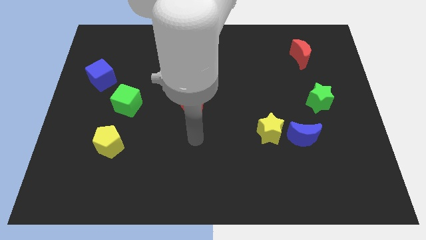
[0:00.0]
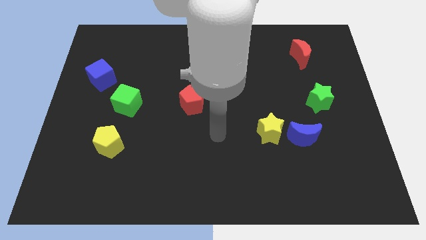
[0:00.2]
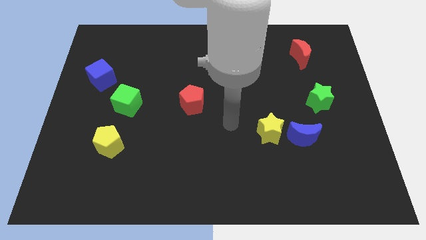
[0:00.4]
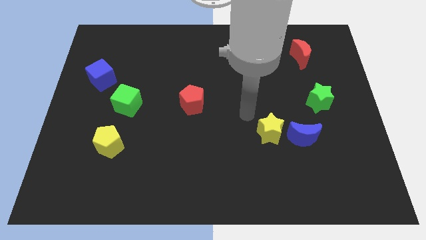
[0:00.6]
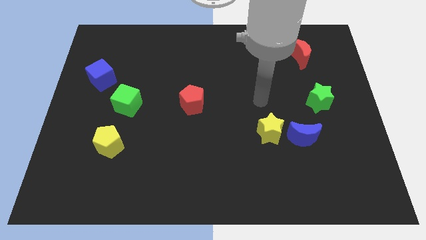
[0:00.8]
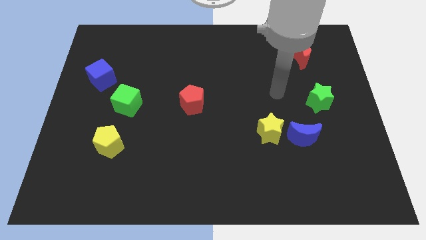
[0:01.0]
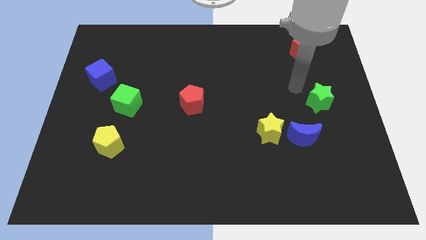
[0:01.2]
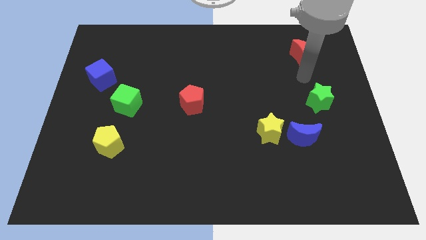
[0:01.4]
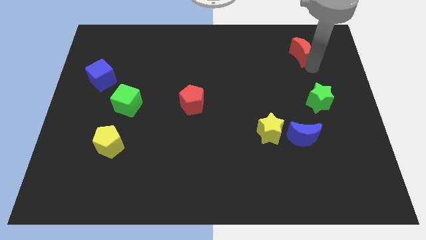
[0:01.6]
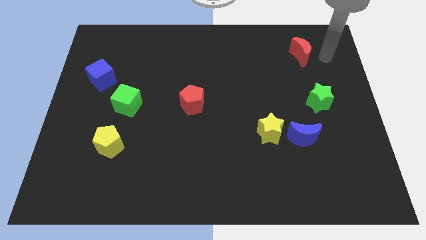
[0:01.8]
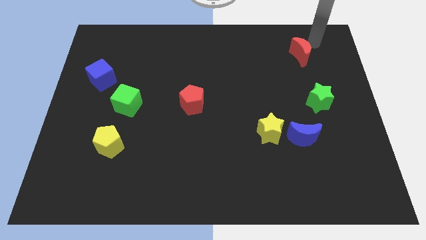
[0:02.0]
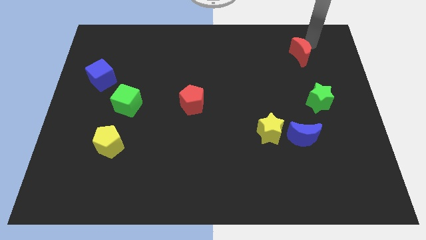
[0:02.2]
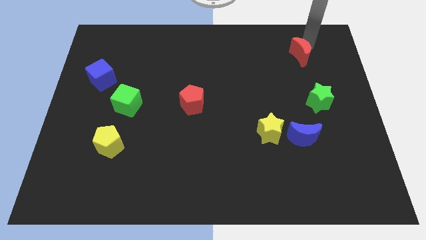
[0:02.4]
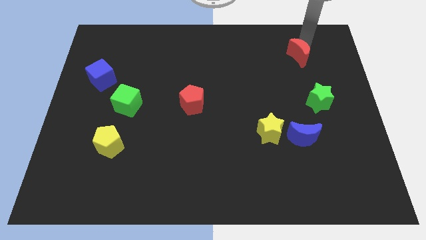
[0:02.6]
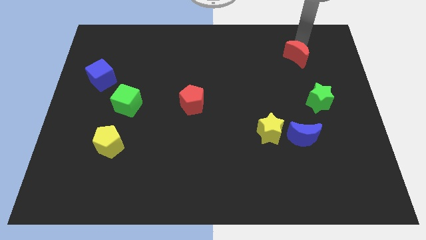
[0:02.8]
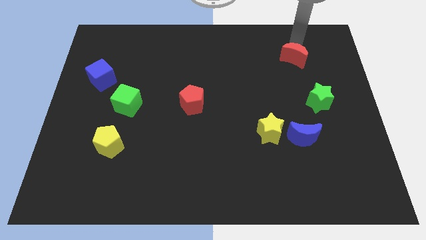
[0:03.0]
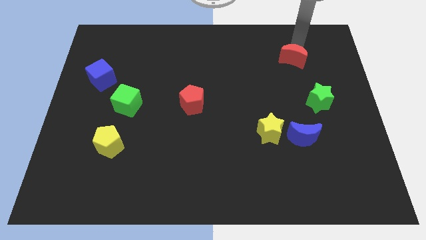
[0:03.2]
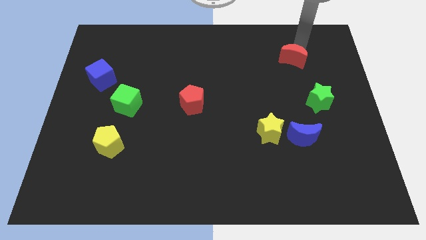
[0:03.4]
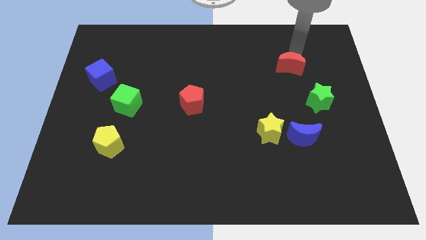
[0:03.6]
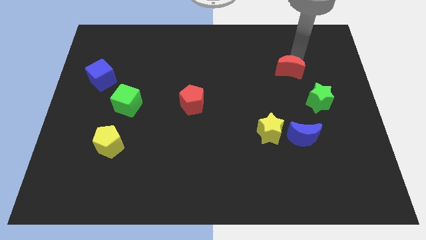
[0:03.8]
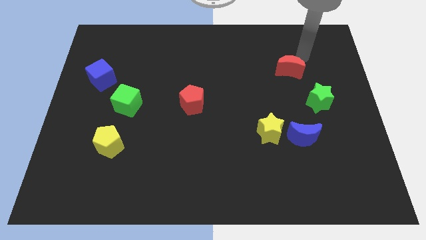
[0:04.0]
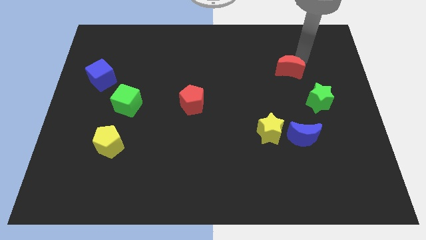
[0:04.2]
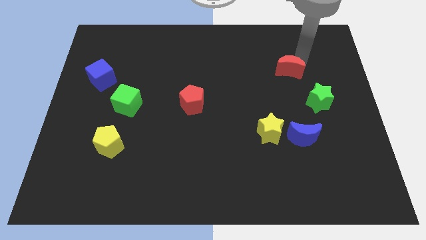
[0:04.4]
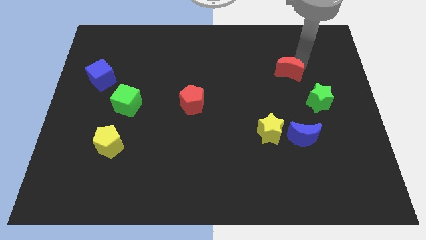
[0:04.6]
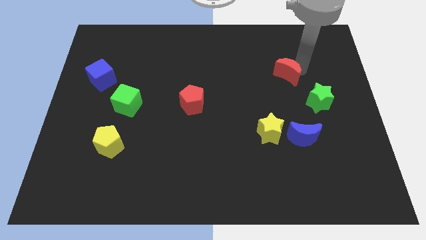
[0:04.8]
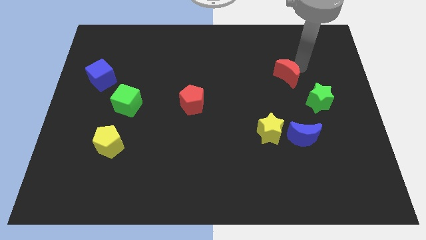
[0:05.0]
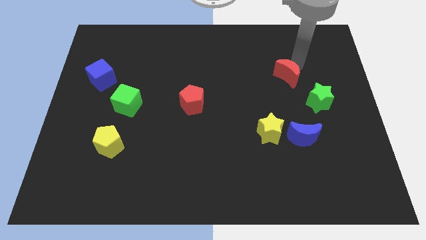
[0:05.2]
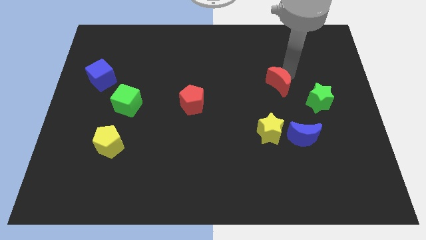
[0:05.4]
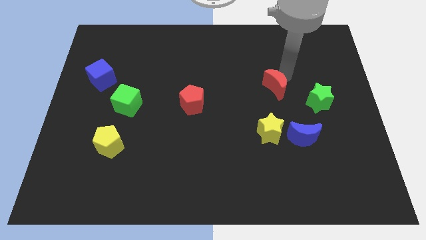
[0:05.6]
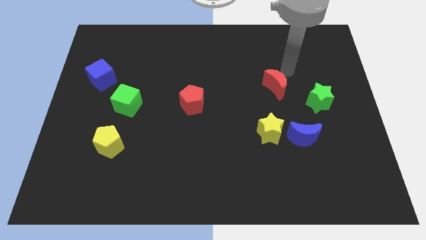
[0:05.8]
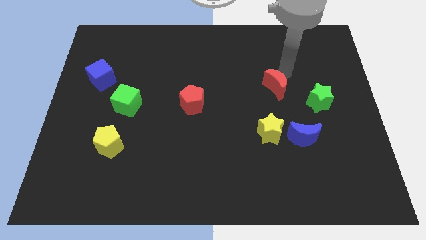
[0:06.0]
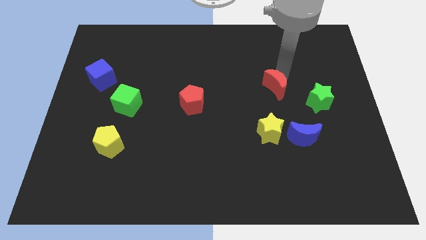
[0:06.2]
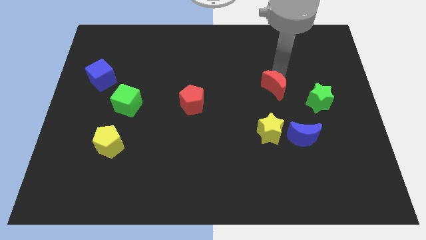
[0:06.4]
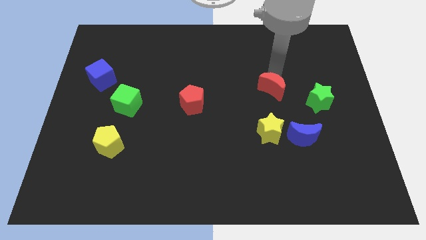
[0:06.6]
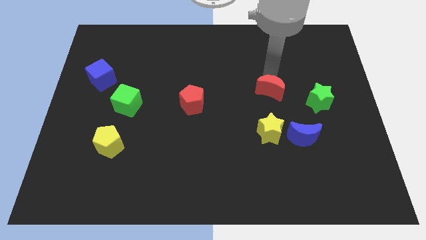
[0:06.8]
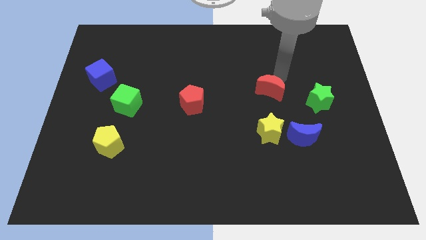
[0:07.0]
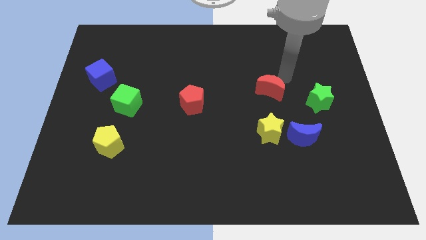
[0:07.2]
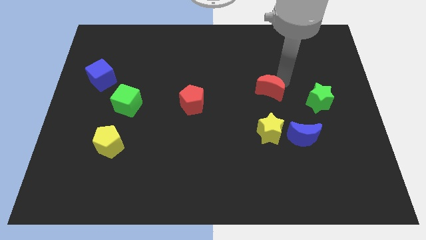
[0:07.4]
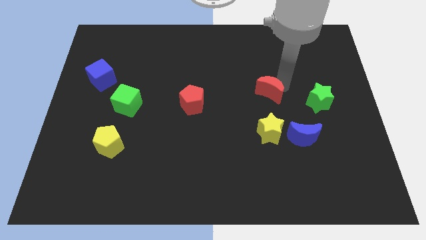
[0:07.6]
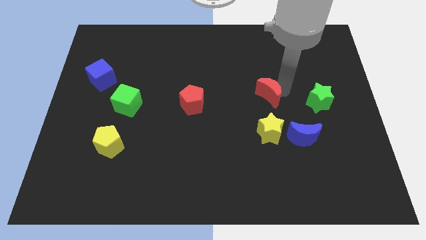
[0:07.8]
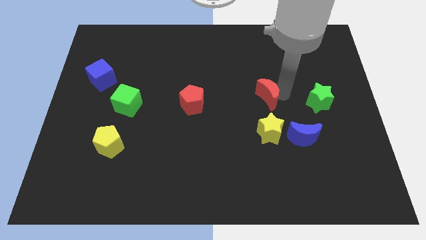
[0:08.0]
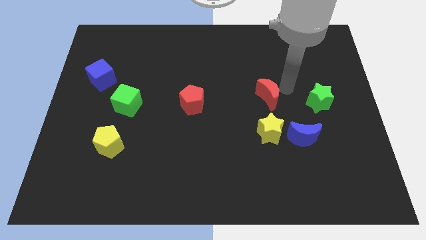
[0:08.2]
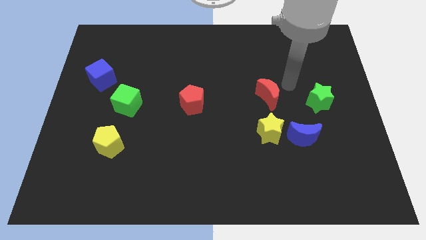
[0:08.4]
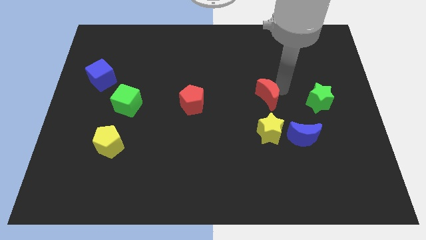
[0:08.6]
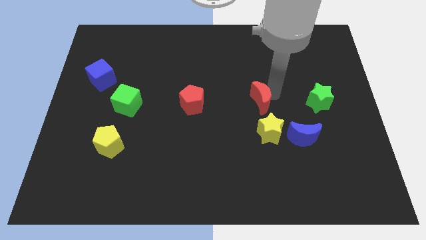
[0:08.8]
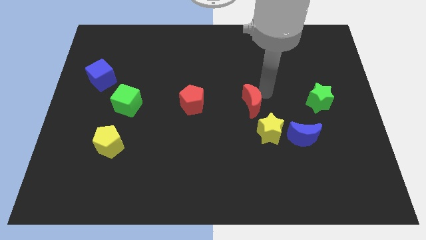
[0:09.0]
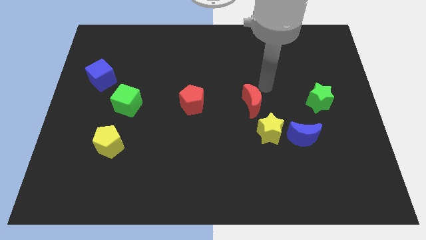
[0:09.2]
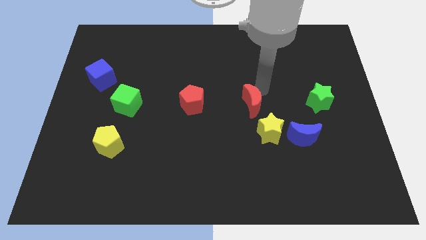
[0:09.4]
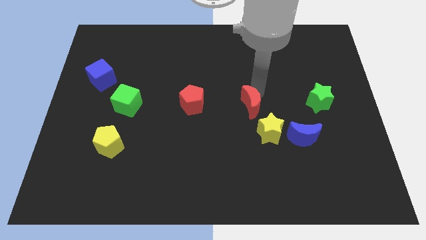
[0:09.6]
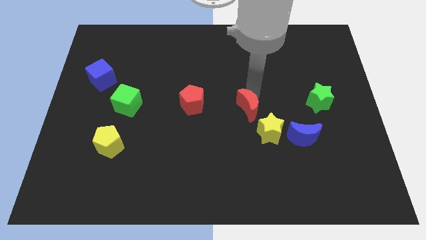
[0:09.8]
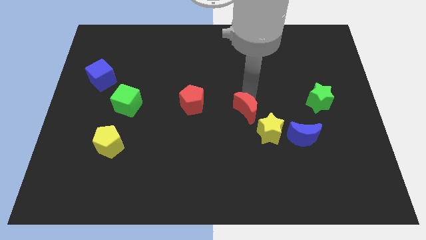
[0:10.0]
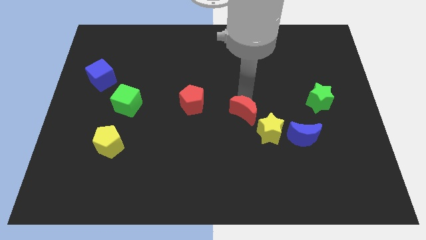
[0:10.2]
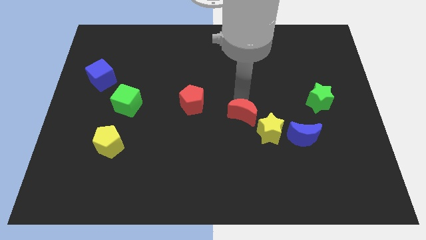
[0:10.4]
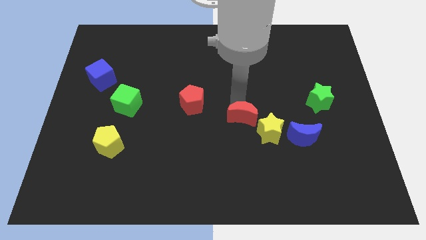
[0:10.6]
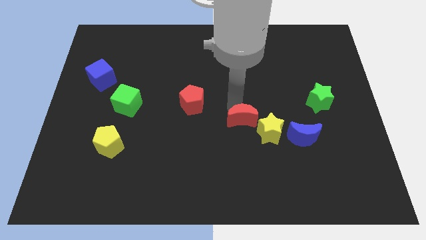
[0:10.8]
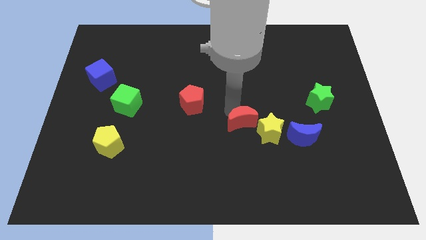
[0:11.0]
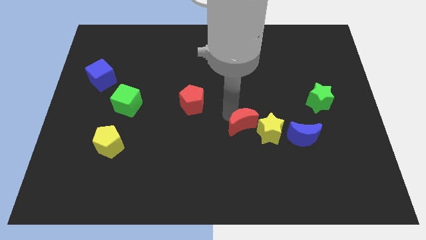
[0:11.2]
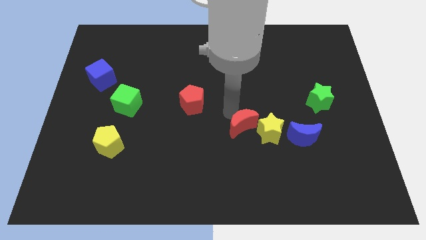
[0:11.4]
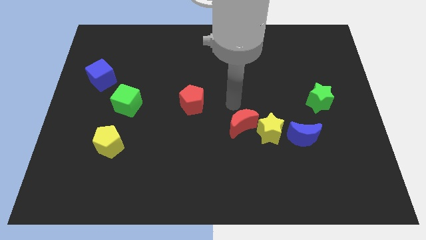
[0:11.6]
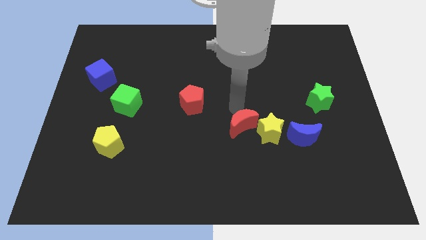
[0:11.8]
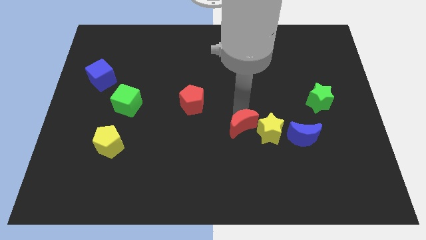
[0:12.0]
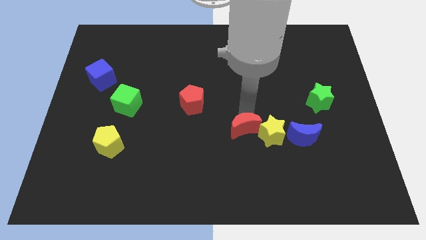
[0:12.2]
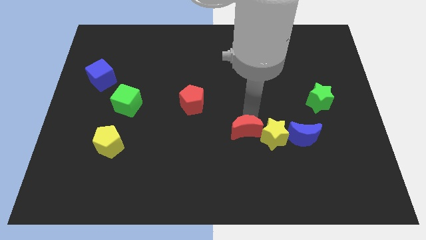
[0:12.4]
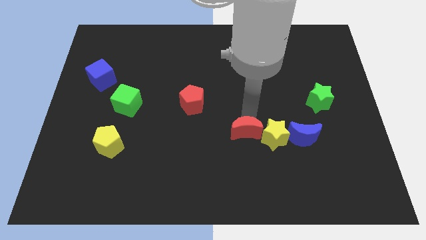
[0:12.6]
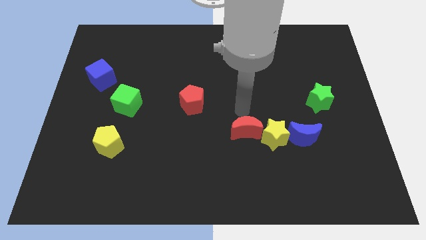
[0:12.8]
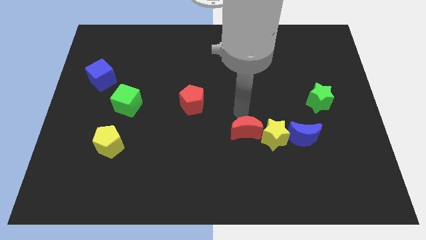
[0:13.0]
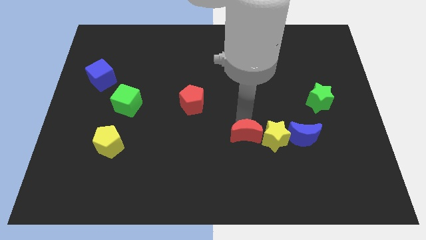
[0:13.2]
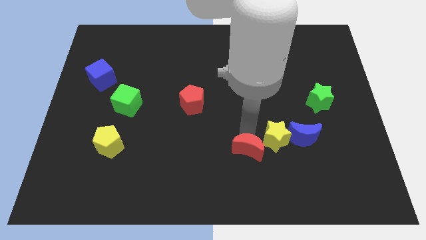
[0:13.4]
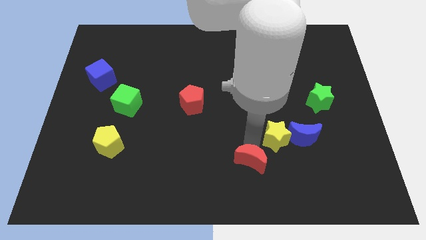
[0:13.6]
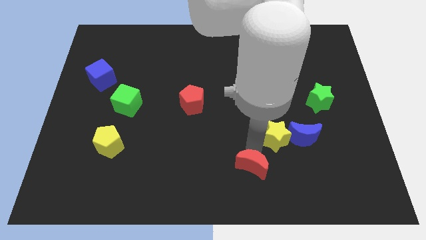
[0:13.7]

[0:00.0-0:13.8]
put the red moon to the bottom side
